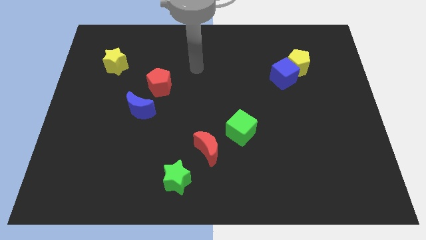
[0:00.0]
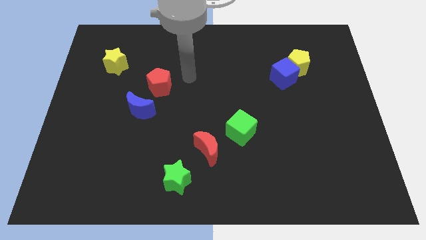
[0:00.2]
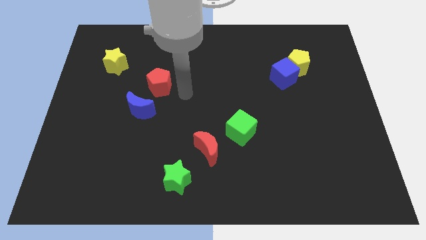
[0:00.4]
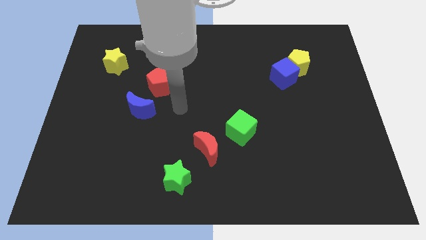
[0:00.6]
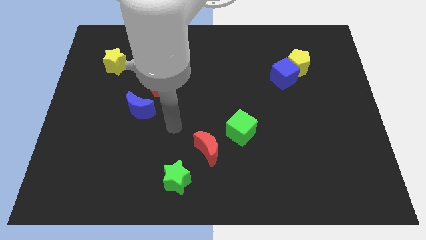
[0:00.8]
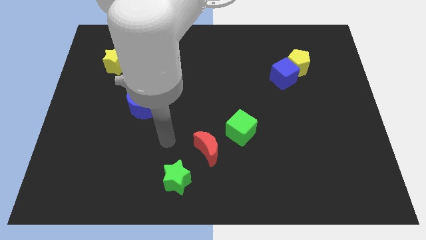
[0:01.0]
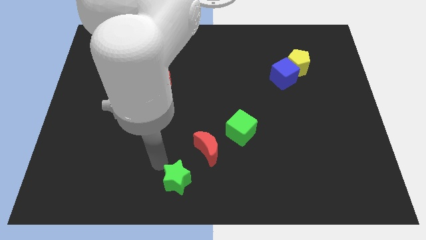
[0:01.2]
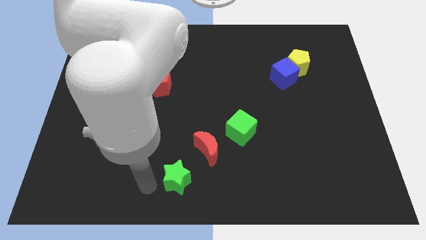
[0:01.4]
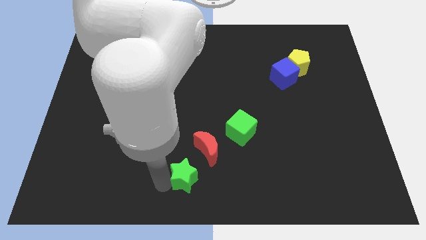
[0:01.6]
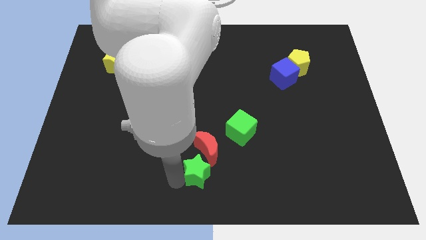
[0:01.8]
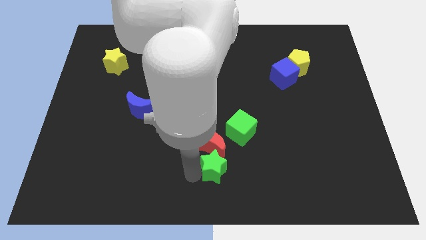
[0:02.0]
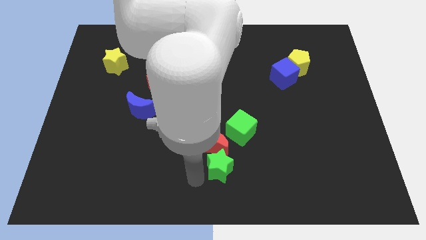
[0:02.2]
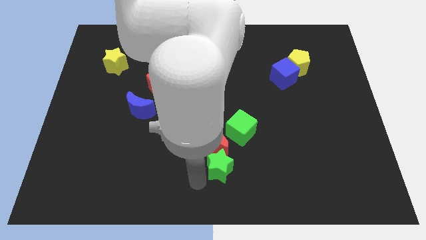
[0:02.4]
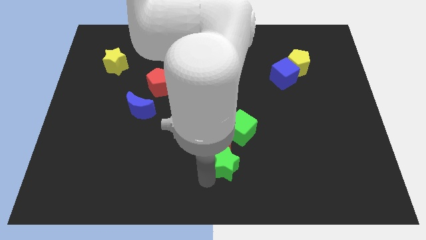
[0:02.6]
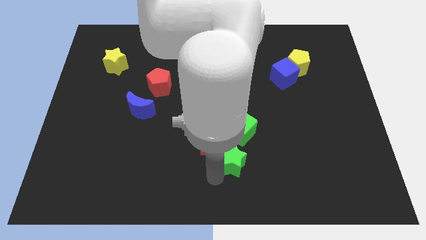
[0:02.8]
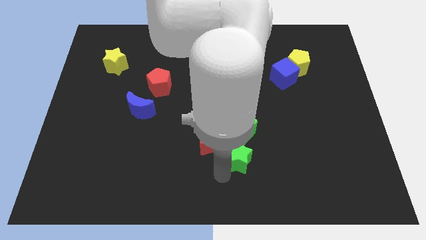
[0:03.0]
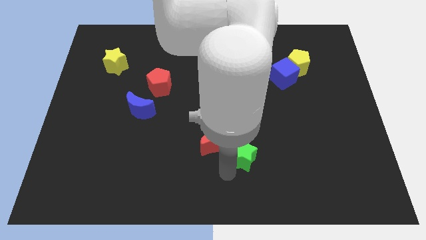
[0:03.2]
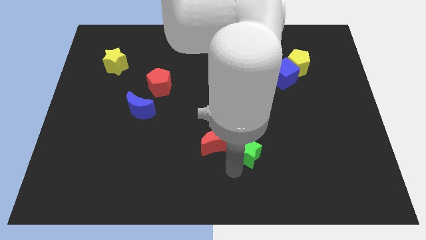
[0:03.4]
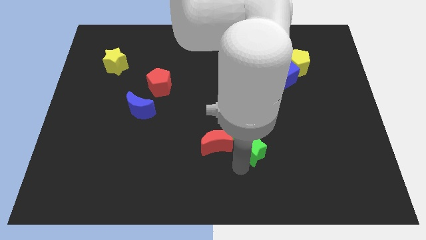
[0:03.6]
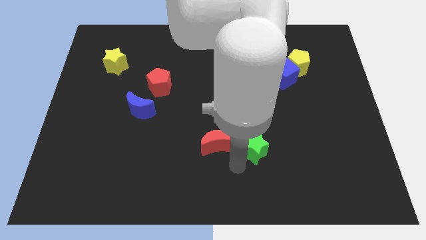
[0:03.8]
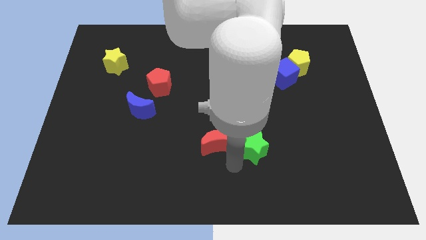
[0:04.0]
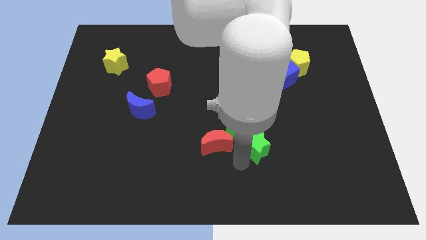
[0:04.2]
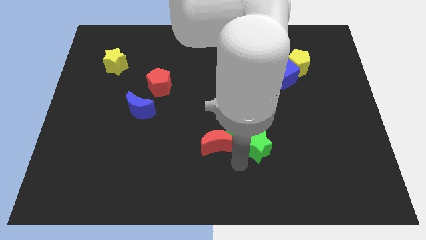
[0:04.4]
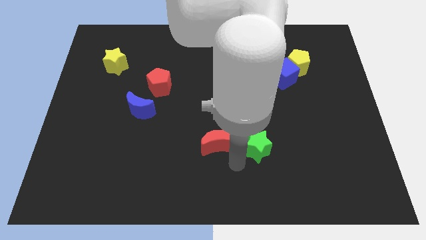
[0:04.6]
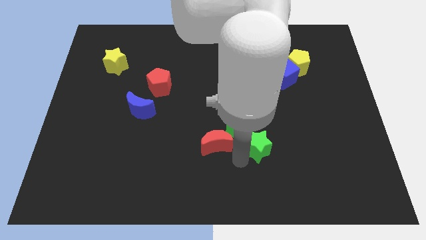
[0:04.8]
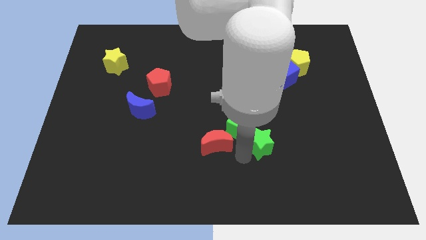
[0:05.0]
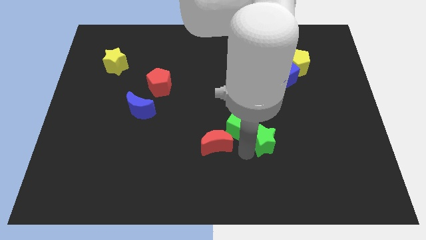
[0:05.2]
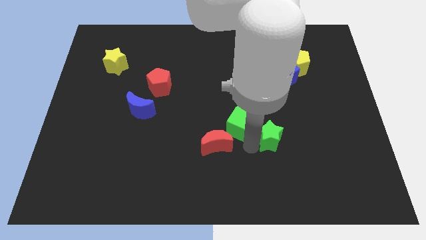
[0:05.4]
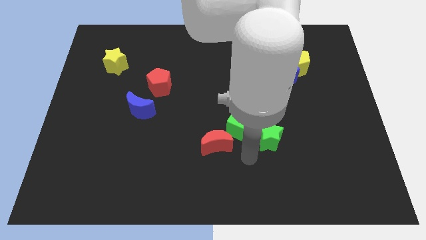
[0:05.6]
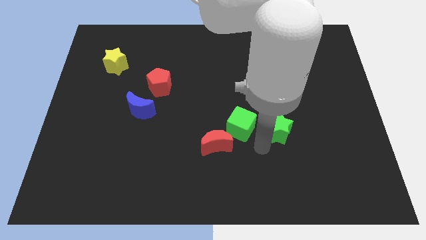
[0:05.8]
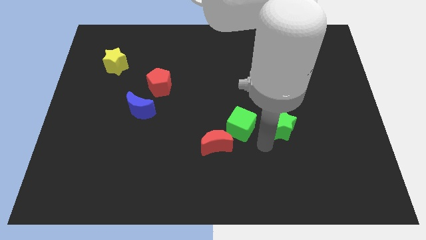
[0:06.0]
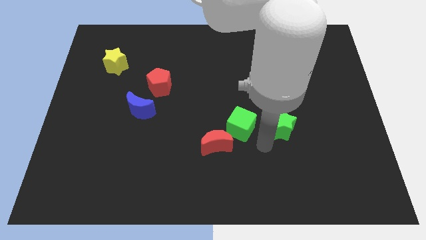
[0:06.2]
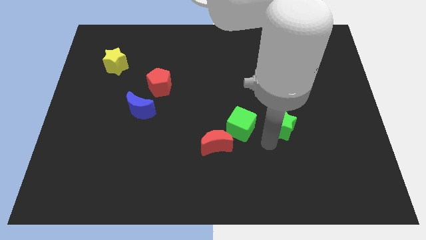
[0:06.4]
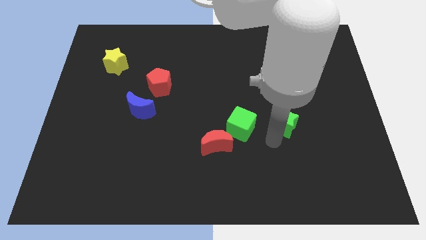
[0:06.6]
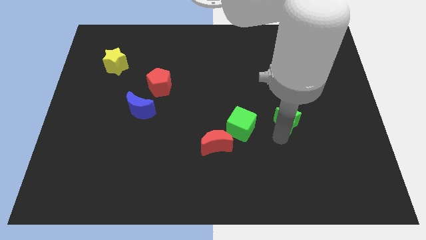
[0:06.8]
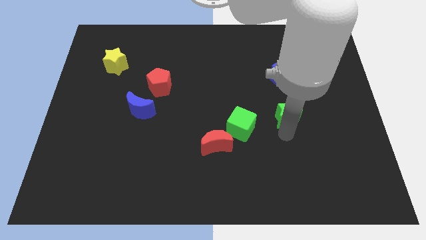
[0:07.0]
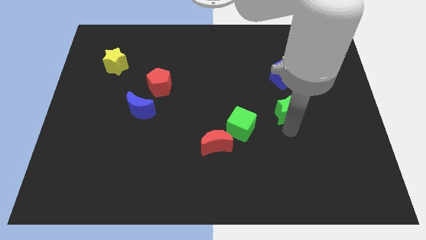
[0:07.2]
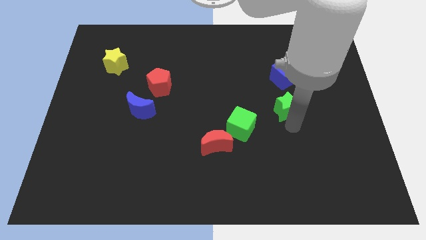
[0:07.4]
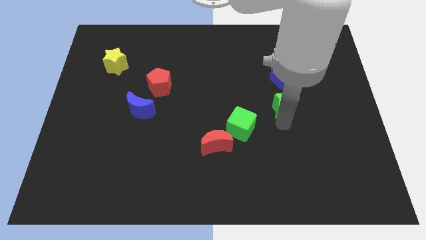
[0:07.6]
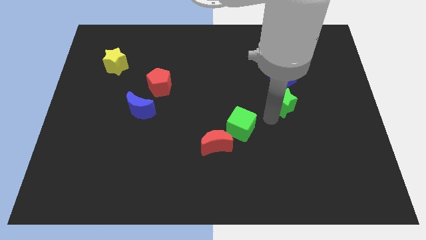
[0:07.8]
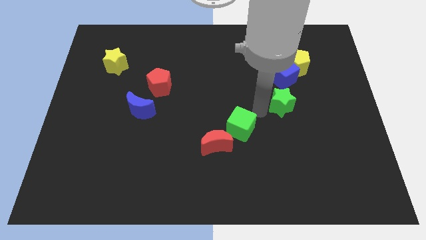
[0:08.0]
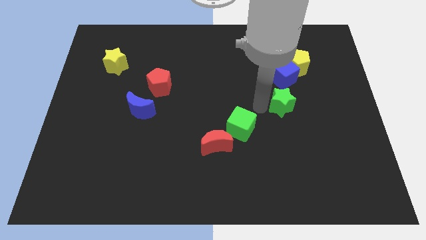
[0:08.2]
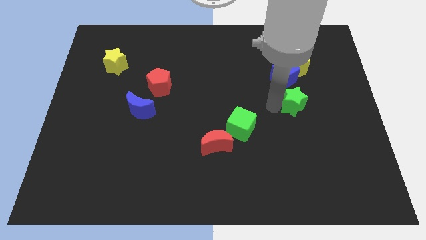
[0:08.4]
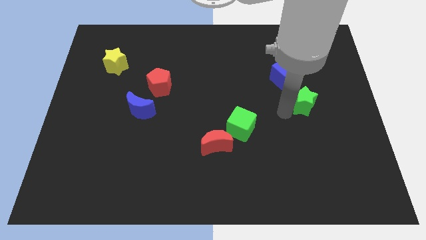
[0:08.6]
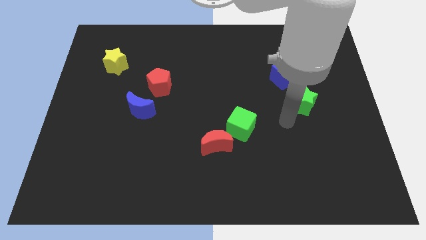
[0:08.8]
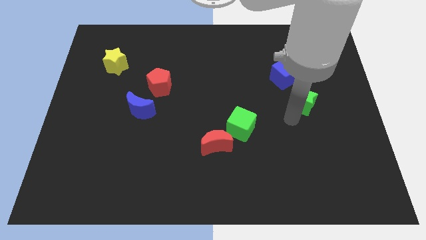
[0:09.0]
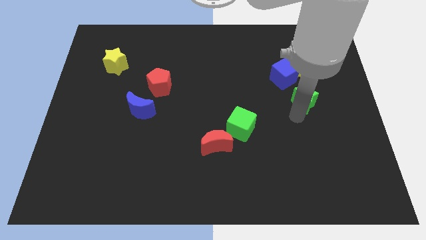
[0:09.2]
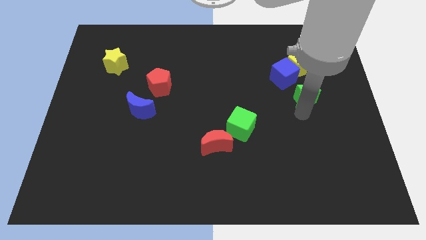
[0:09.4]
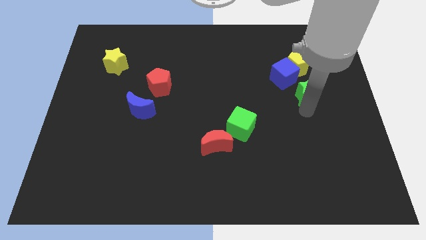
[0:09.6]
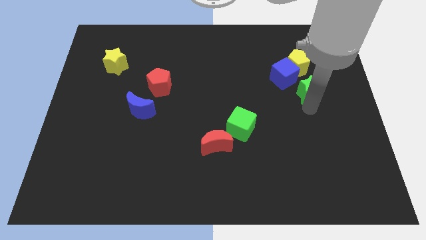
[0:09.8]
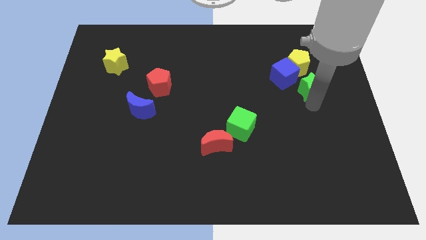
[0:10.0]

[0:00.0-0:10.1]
put the green star just right of the blue cube

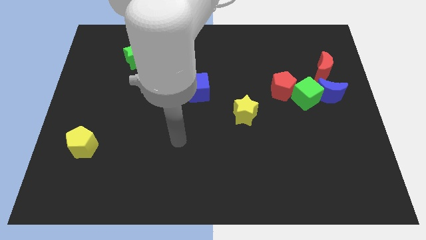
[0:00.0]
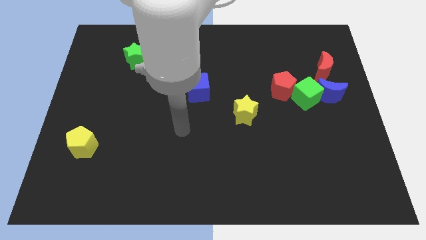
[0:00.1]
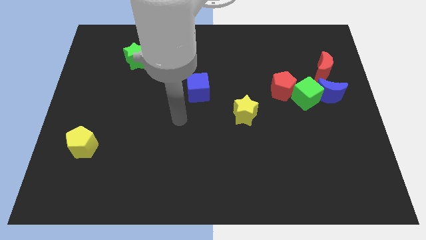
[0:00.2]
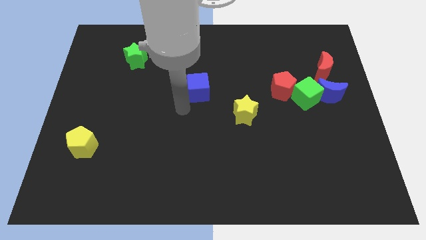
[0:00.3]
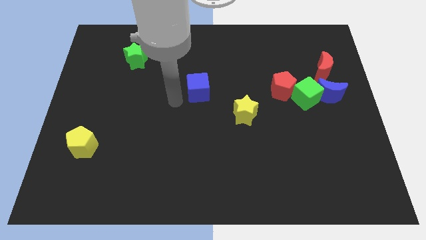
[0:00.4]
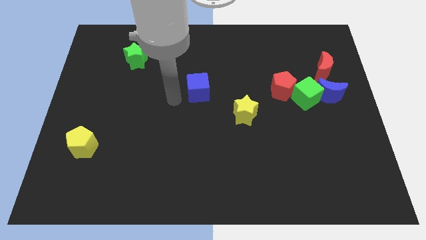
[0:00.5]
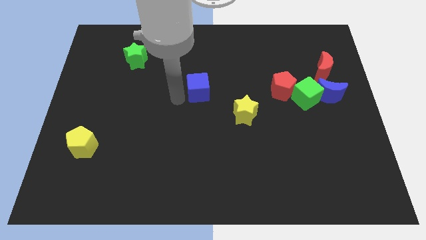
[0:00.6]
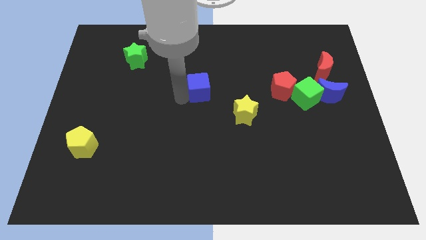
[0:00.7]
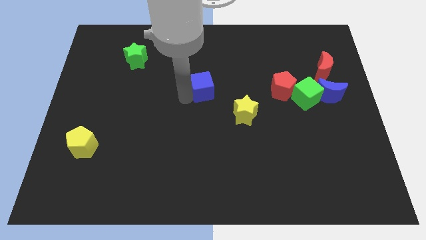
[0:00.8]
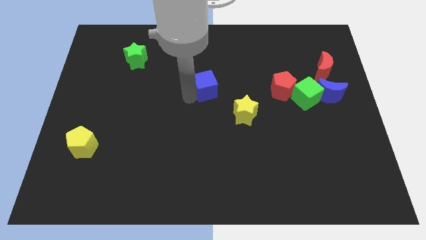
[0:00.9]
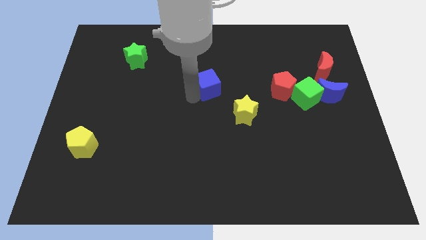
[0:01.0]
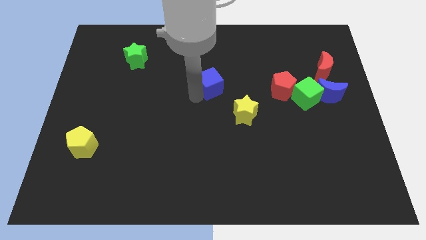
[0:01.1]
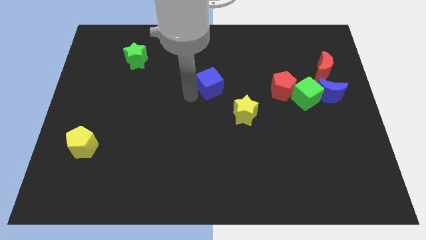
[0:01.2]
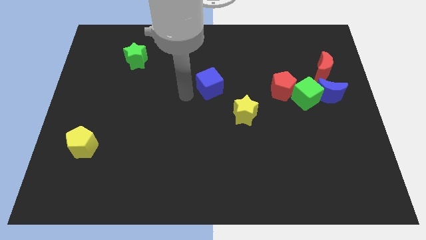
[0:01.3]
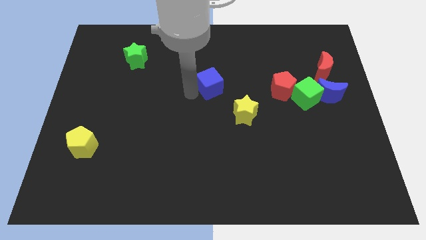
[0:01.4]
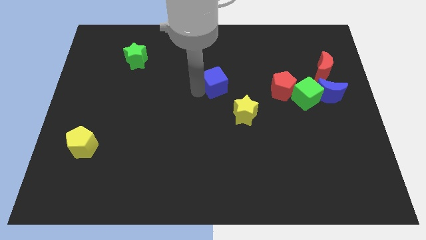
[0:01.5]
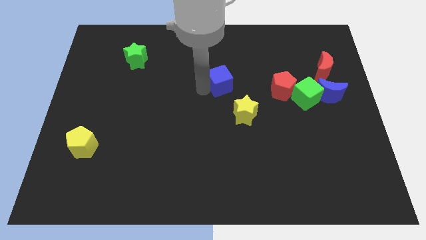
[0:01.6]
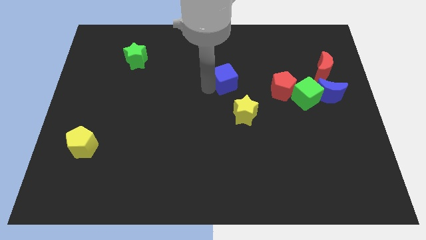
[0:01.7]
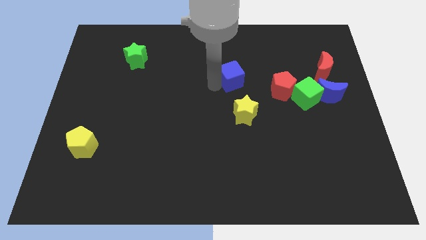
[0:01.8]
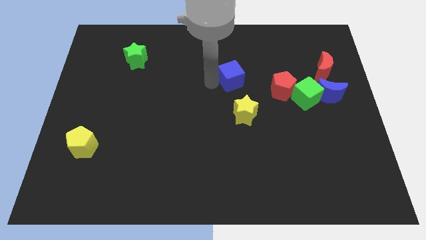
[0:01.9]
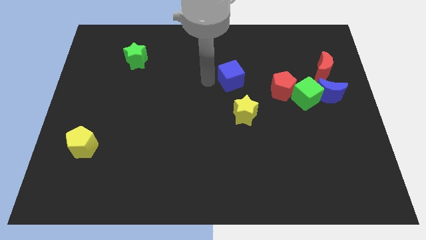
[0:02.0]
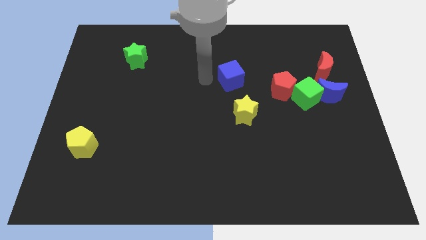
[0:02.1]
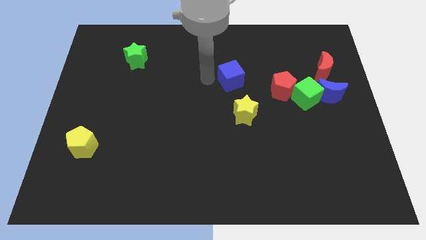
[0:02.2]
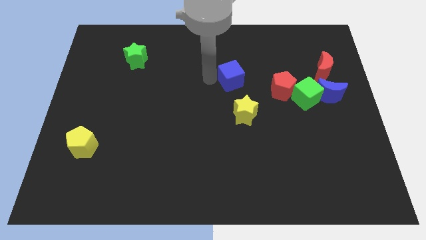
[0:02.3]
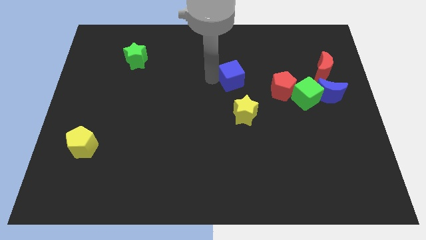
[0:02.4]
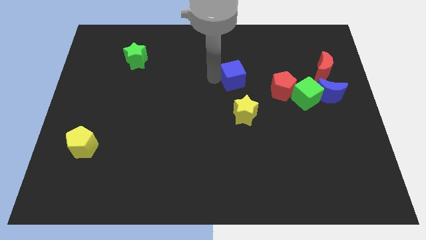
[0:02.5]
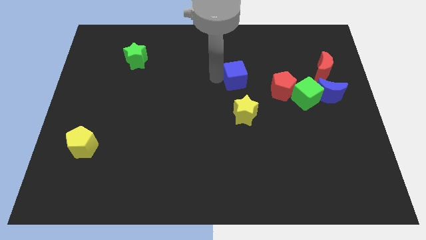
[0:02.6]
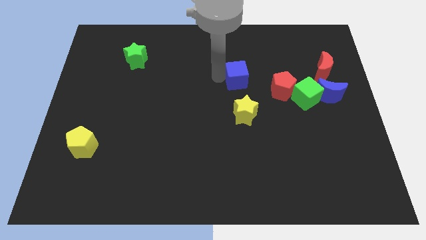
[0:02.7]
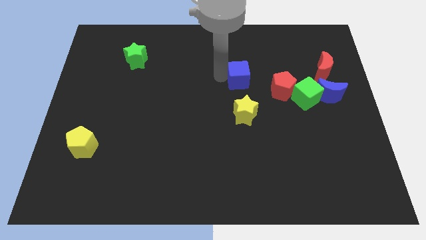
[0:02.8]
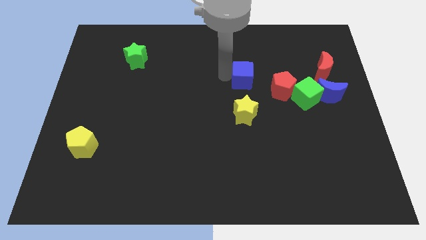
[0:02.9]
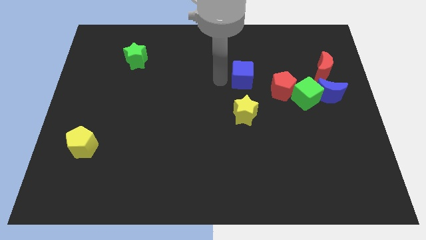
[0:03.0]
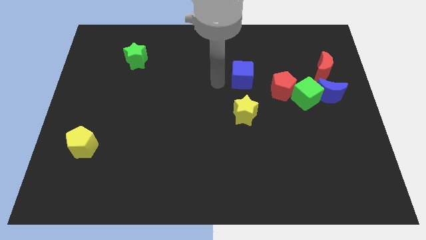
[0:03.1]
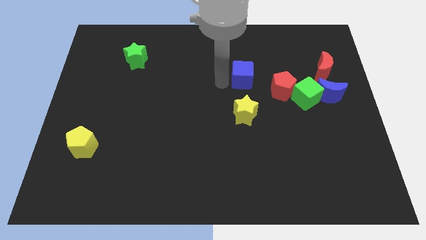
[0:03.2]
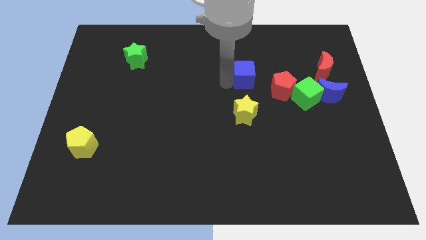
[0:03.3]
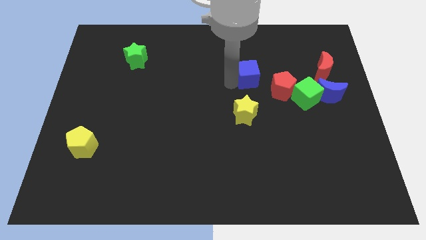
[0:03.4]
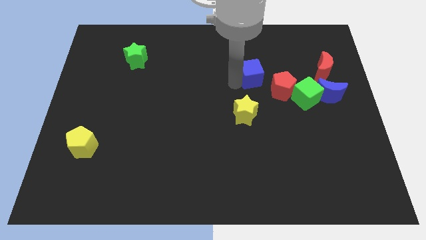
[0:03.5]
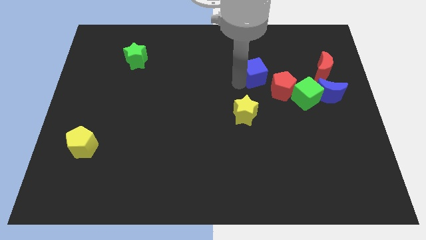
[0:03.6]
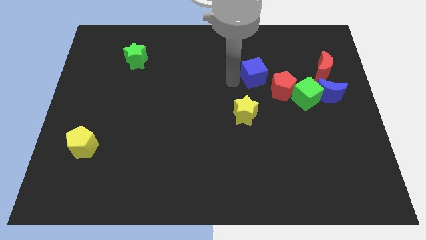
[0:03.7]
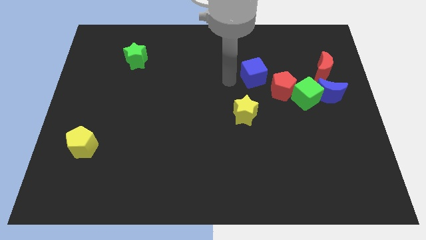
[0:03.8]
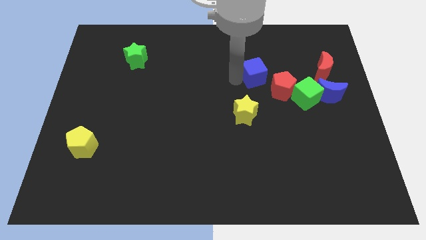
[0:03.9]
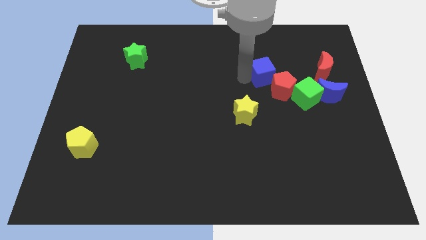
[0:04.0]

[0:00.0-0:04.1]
move the blue cube just left of the red moon
